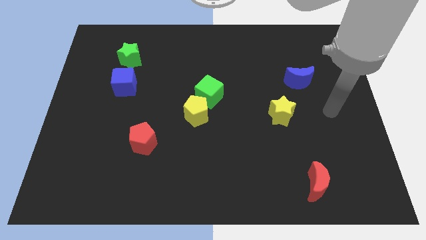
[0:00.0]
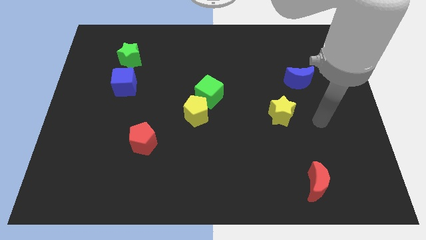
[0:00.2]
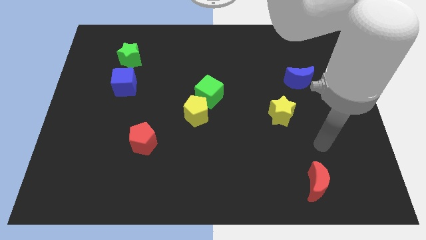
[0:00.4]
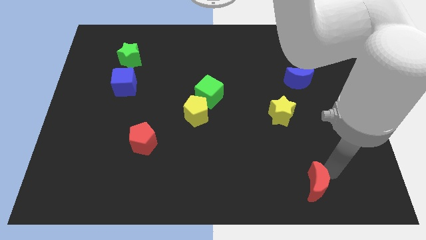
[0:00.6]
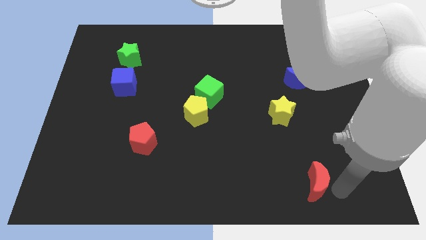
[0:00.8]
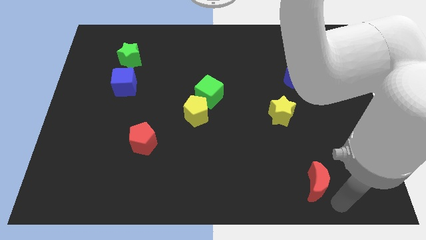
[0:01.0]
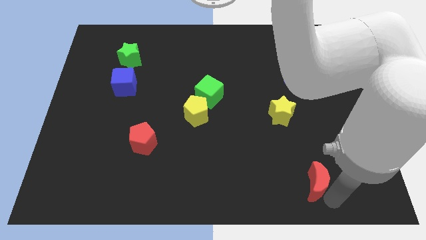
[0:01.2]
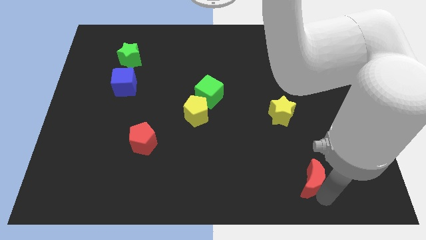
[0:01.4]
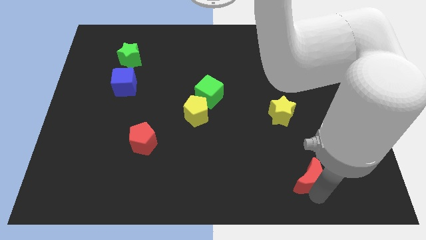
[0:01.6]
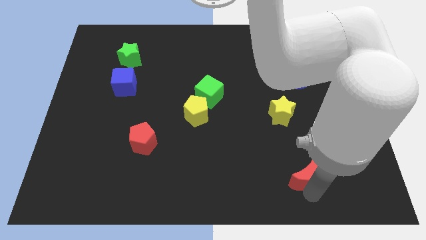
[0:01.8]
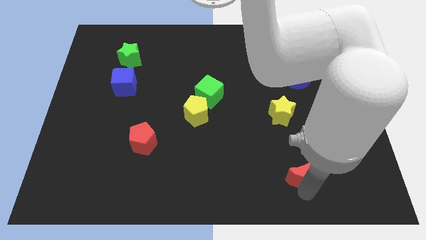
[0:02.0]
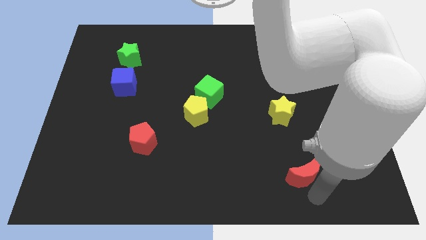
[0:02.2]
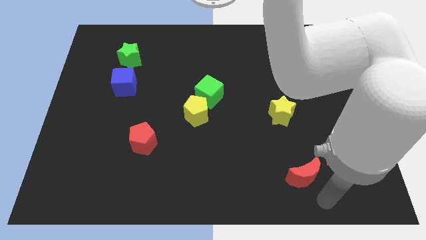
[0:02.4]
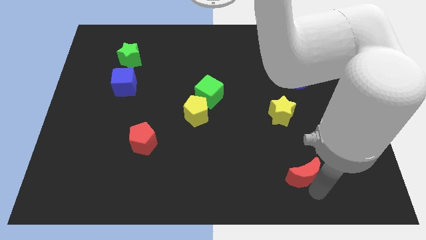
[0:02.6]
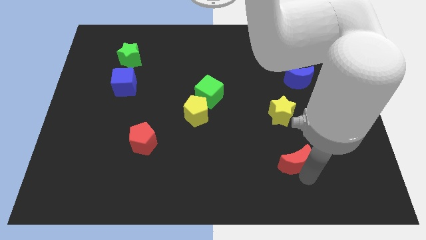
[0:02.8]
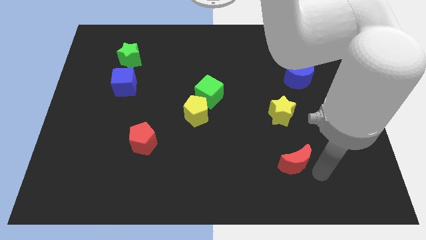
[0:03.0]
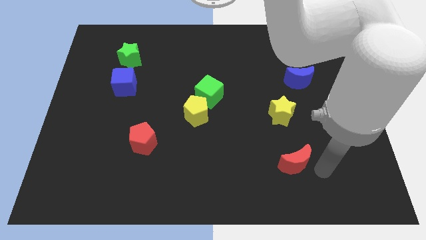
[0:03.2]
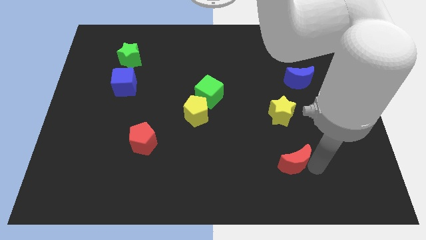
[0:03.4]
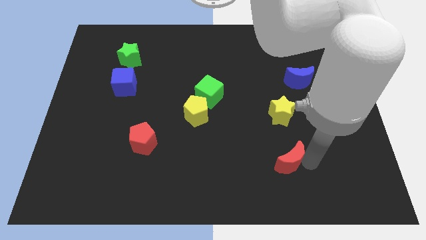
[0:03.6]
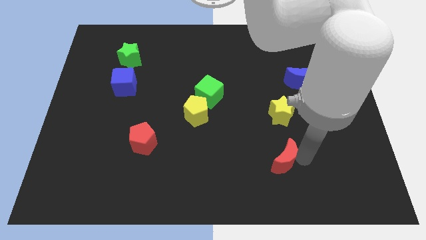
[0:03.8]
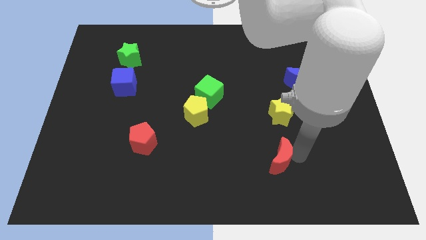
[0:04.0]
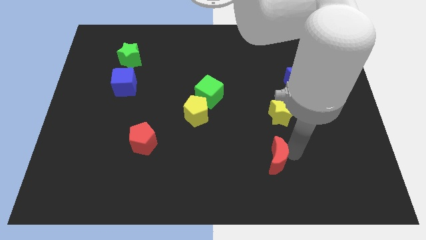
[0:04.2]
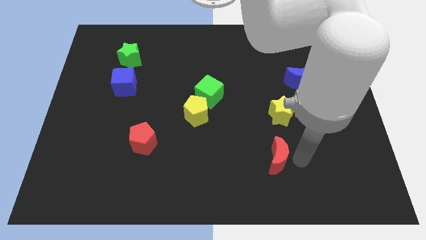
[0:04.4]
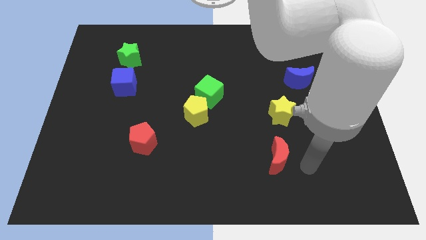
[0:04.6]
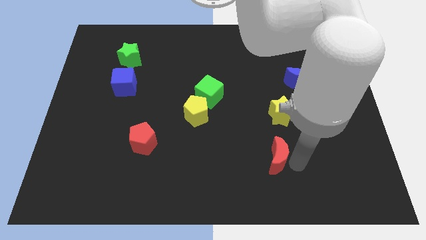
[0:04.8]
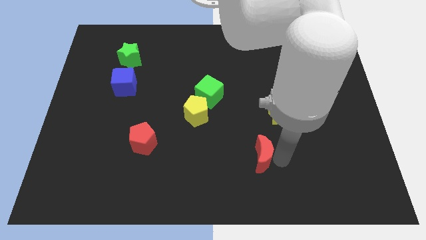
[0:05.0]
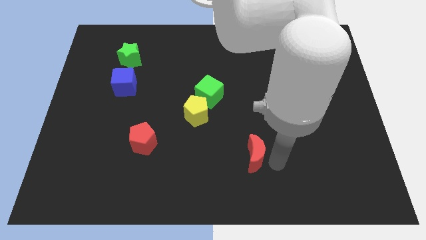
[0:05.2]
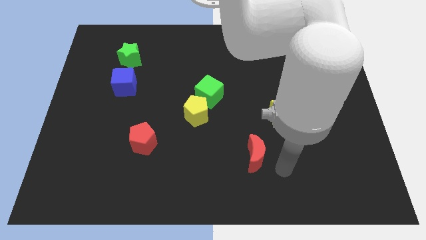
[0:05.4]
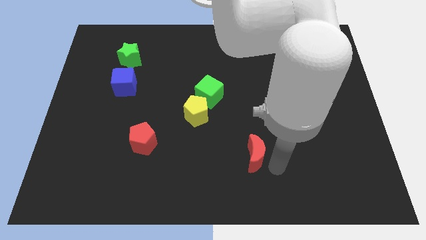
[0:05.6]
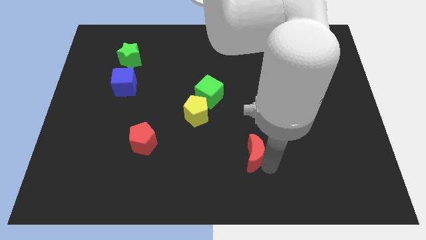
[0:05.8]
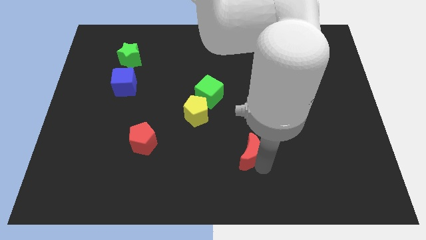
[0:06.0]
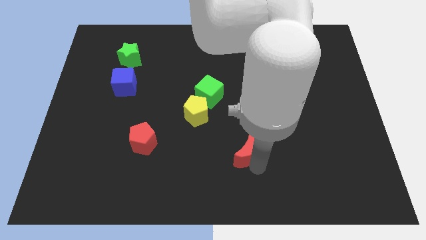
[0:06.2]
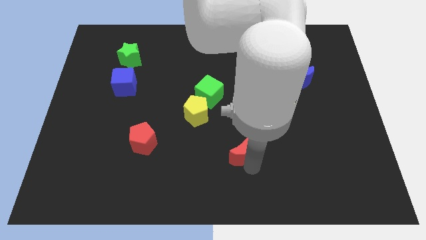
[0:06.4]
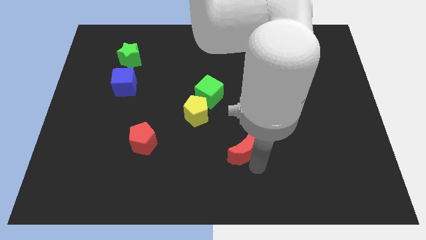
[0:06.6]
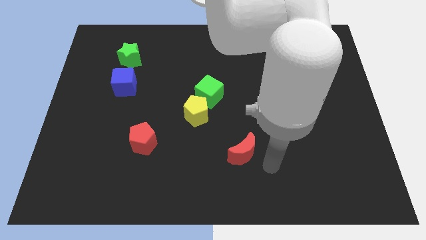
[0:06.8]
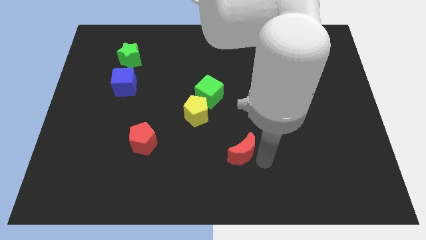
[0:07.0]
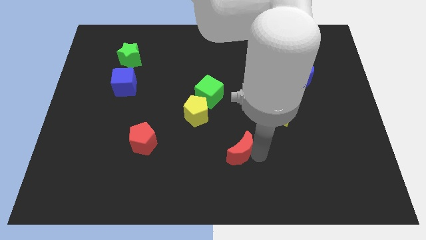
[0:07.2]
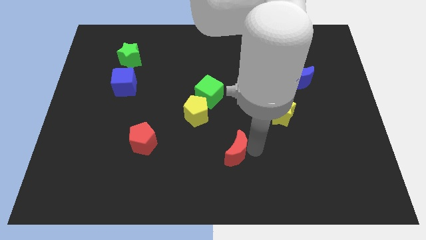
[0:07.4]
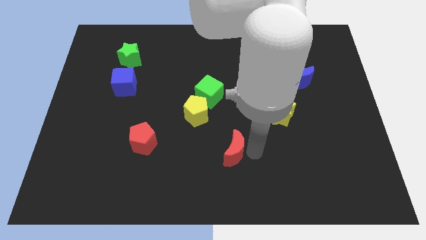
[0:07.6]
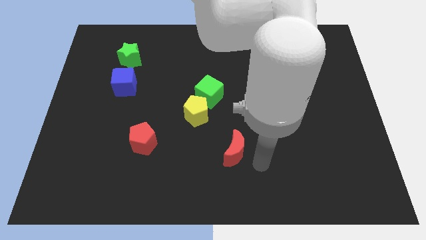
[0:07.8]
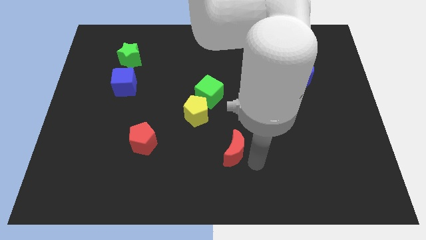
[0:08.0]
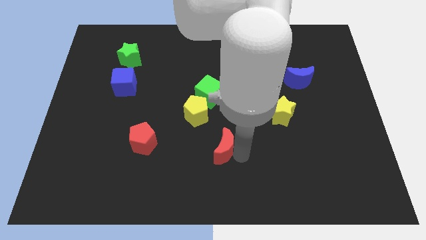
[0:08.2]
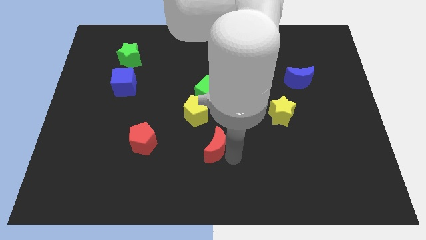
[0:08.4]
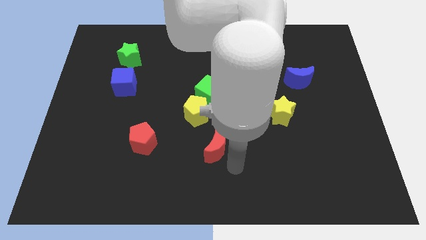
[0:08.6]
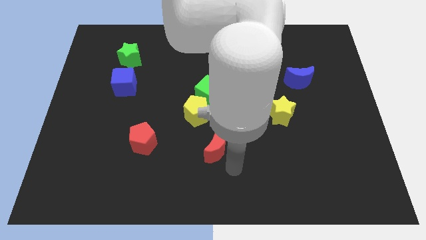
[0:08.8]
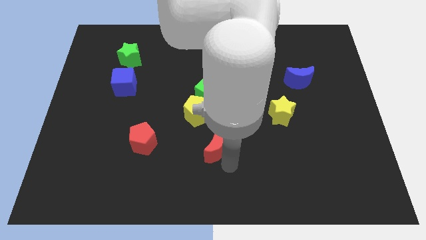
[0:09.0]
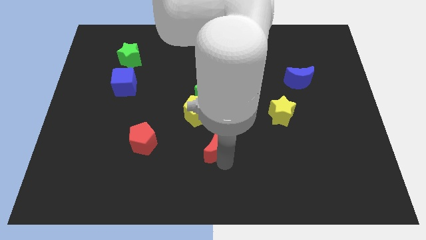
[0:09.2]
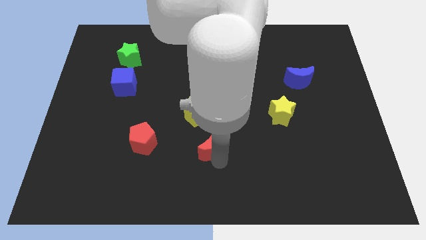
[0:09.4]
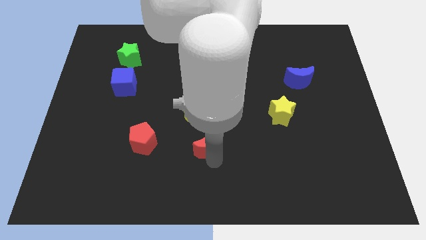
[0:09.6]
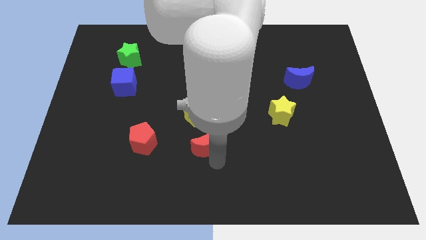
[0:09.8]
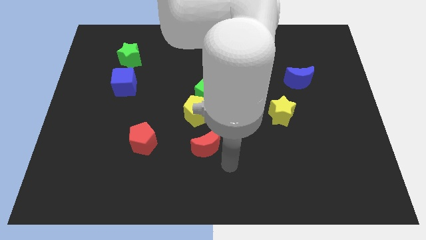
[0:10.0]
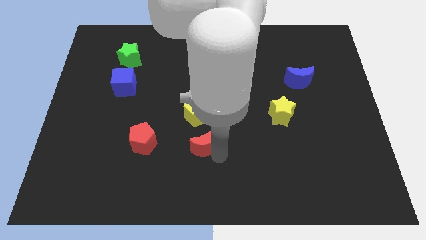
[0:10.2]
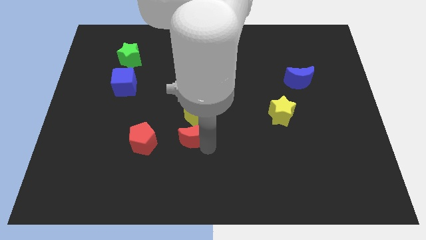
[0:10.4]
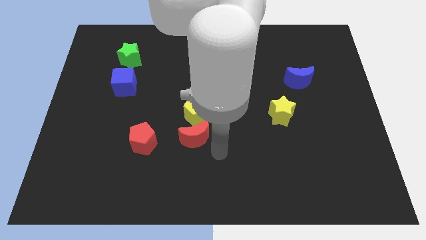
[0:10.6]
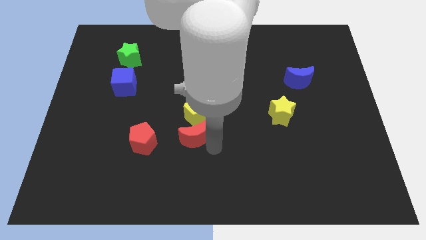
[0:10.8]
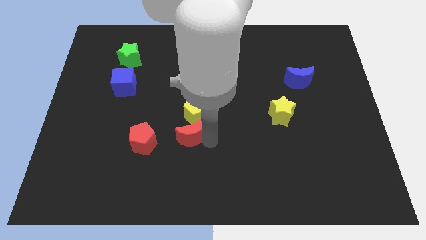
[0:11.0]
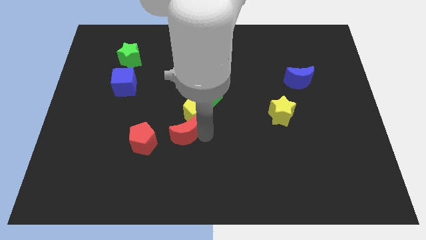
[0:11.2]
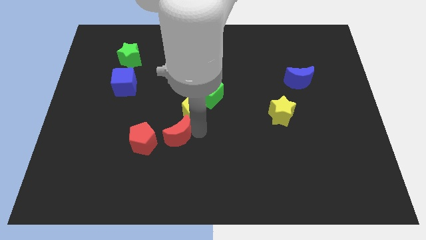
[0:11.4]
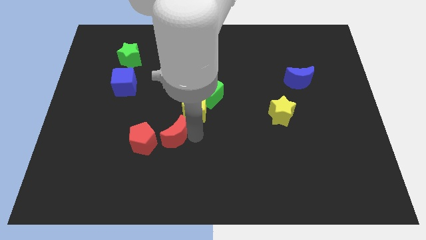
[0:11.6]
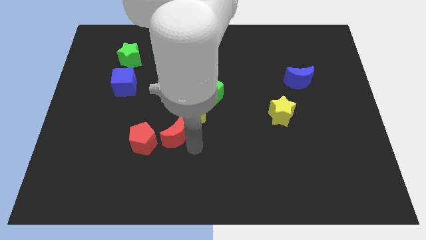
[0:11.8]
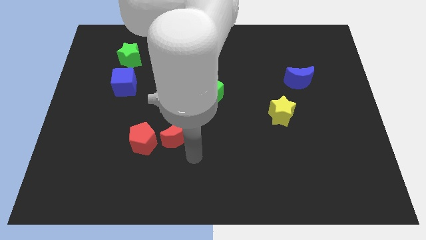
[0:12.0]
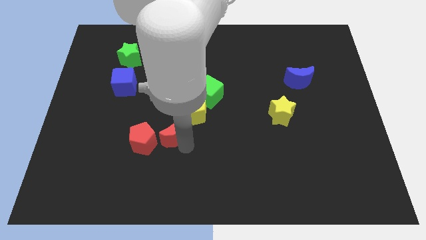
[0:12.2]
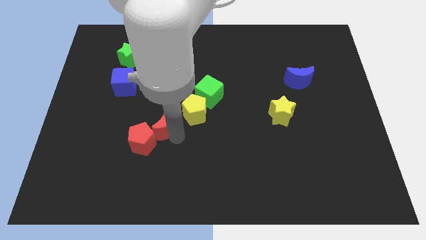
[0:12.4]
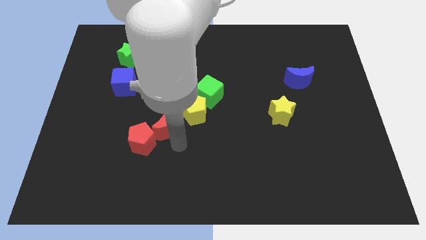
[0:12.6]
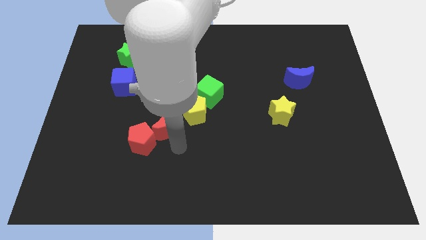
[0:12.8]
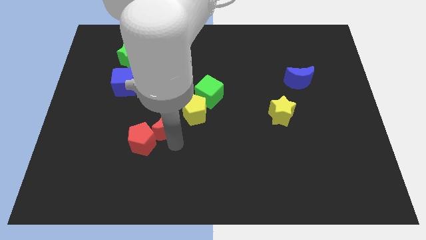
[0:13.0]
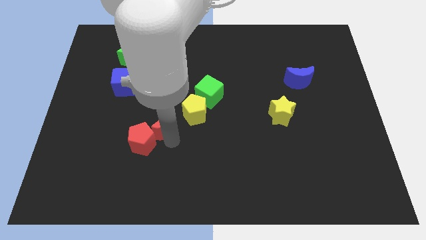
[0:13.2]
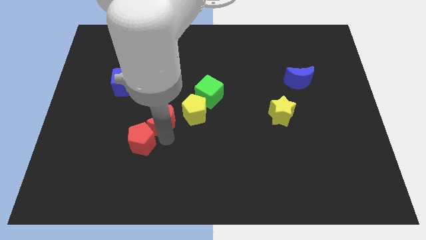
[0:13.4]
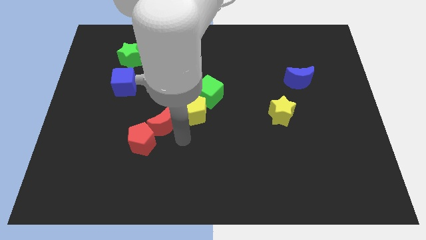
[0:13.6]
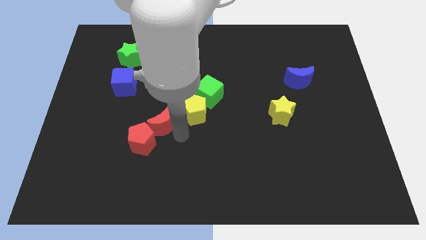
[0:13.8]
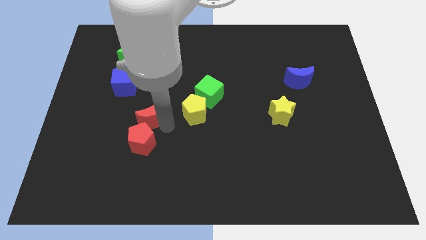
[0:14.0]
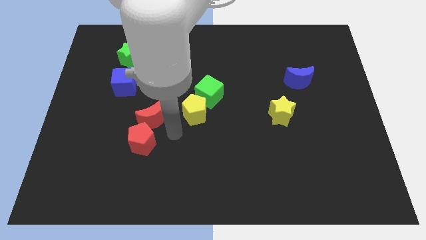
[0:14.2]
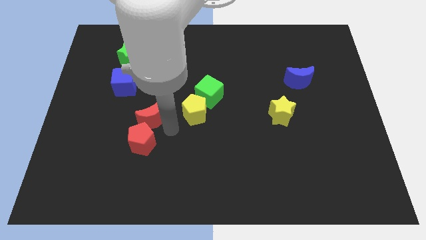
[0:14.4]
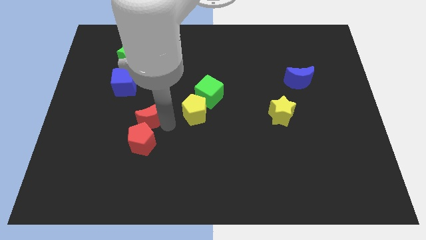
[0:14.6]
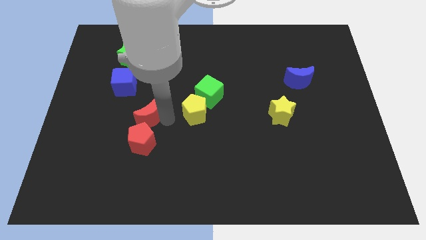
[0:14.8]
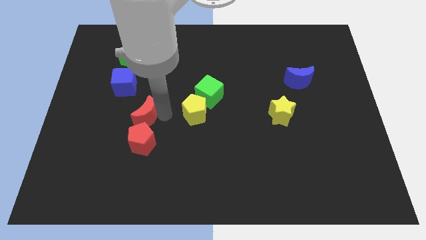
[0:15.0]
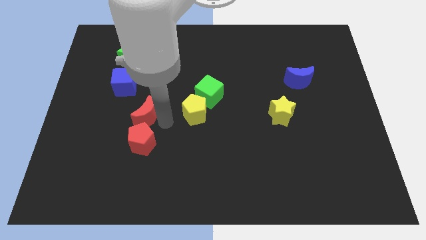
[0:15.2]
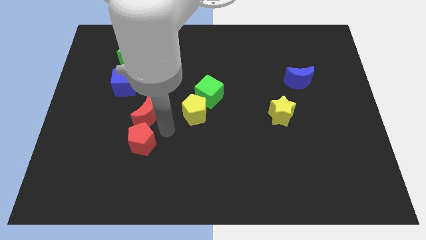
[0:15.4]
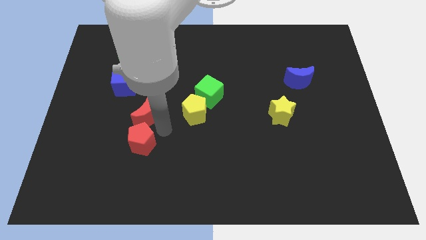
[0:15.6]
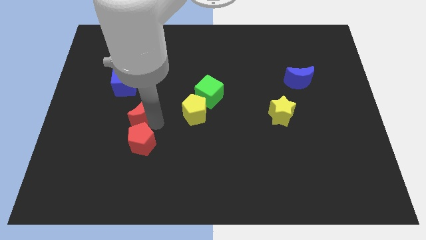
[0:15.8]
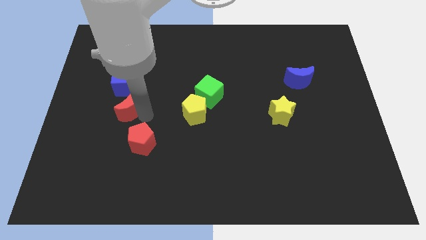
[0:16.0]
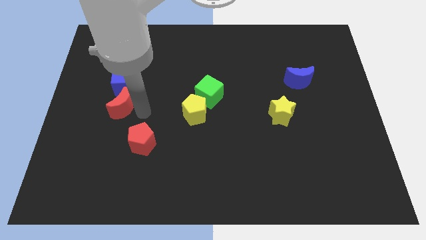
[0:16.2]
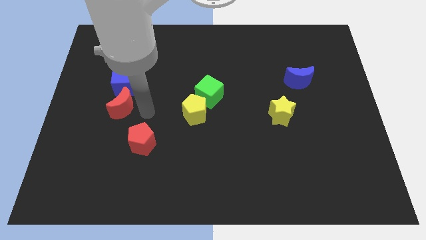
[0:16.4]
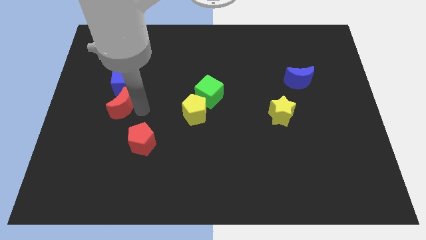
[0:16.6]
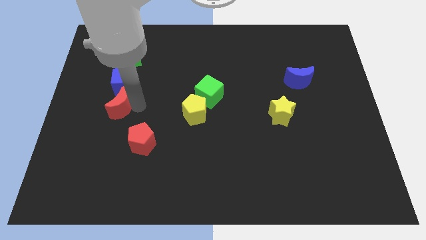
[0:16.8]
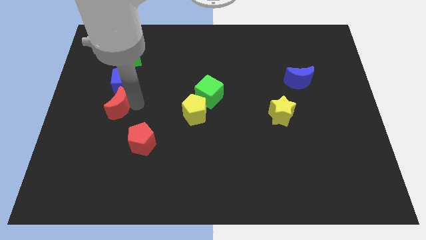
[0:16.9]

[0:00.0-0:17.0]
slide the red moon to the bottom left side of the blue cube
